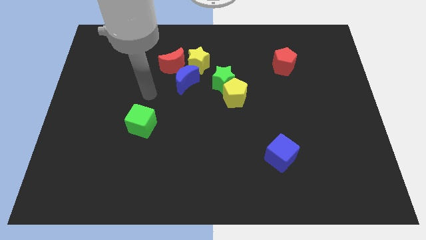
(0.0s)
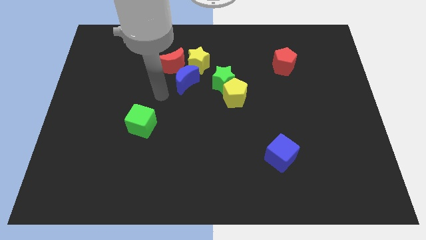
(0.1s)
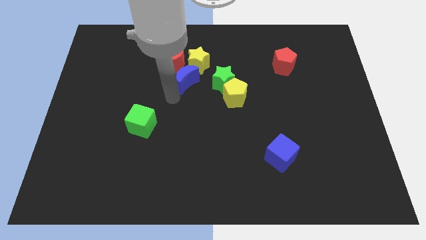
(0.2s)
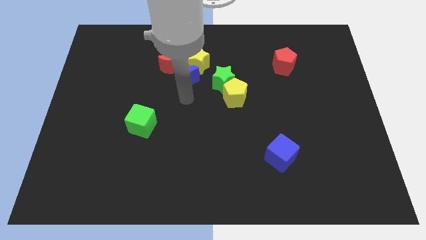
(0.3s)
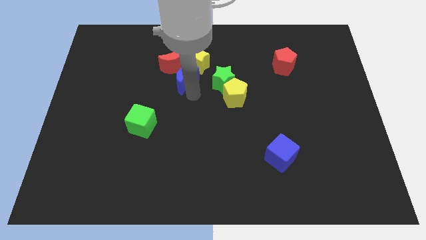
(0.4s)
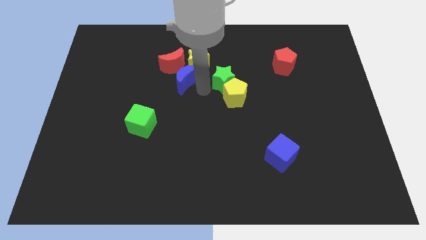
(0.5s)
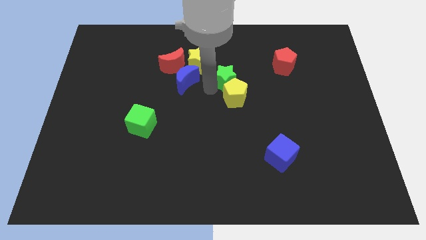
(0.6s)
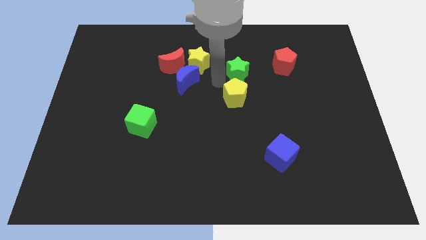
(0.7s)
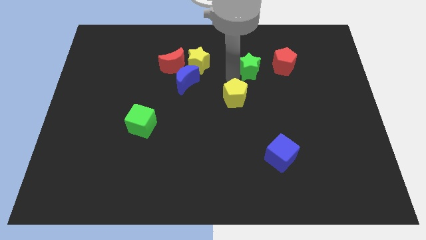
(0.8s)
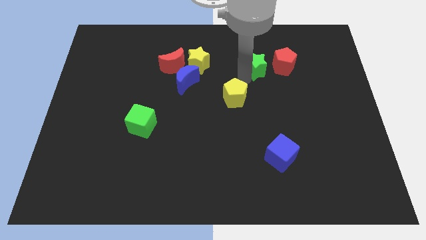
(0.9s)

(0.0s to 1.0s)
pull the yellow pentagon apart from the green star

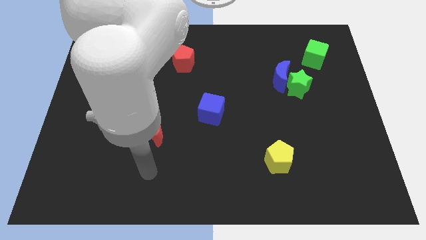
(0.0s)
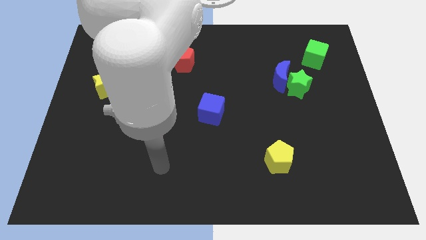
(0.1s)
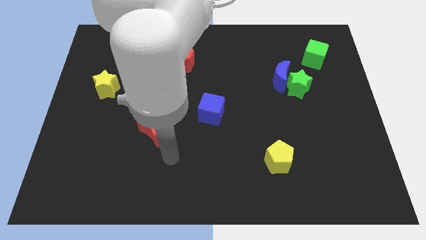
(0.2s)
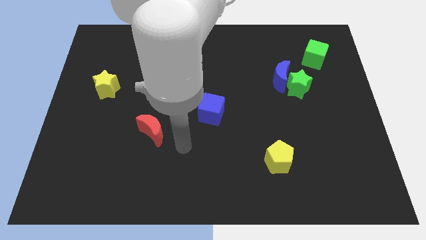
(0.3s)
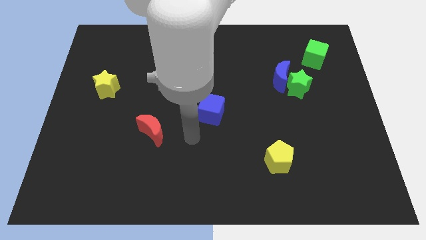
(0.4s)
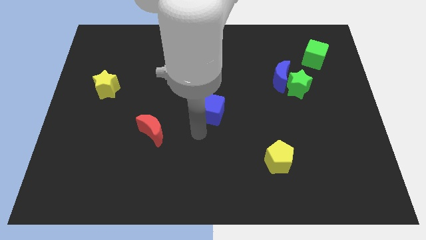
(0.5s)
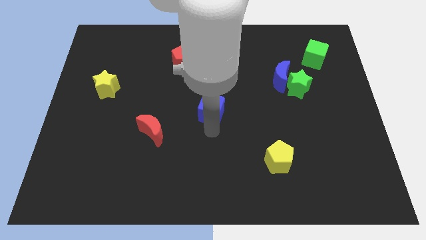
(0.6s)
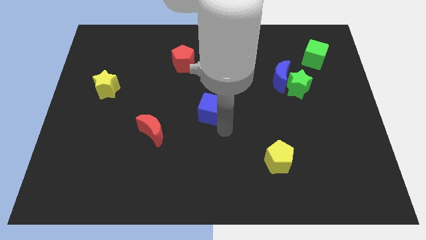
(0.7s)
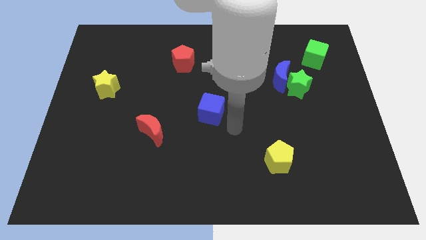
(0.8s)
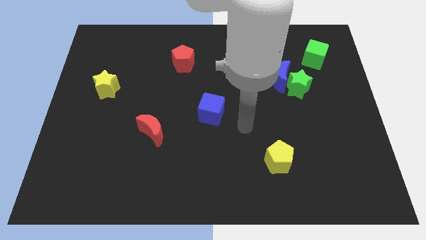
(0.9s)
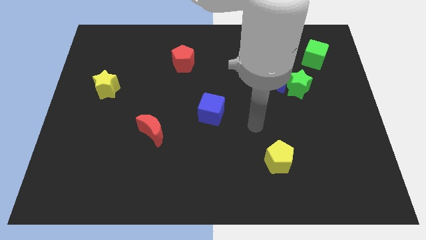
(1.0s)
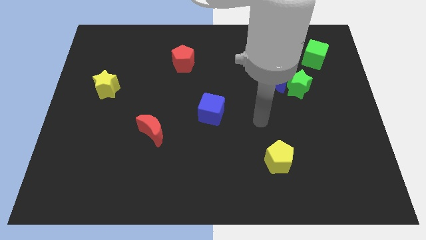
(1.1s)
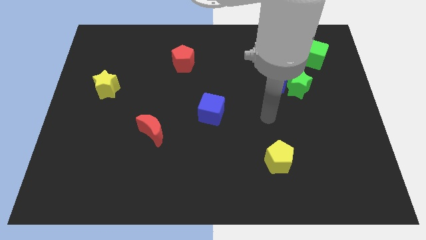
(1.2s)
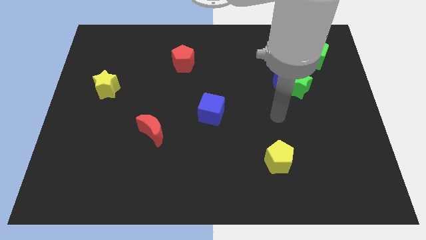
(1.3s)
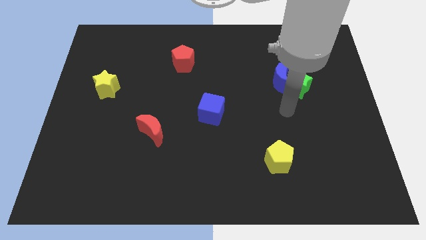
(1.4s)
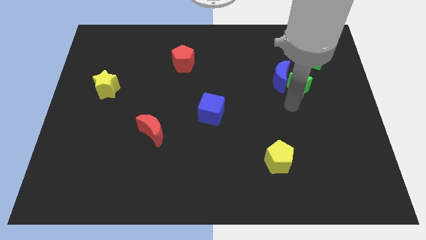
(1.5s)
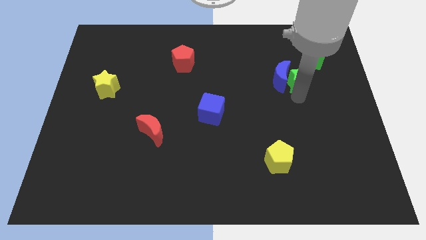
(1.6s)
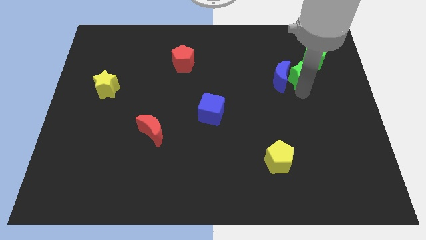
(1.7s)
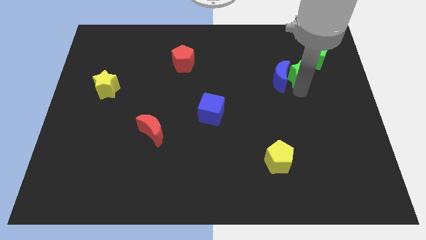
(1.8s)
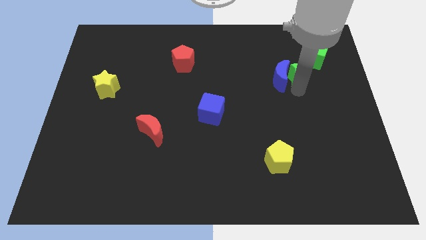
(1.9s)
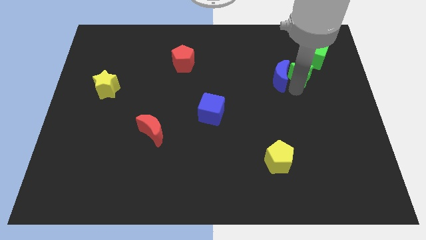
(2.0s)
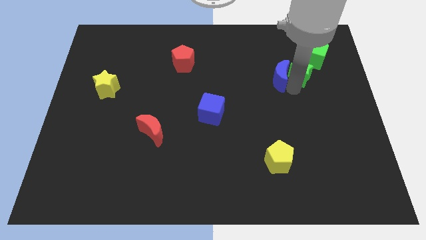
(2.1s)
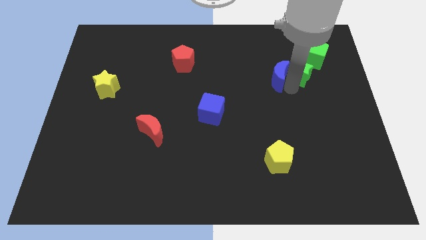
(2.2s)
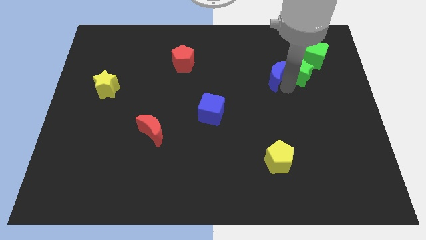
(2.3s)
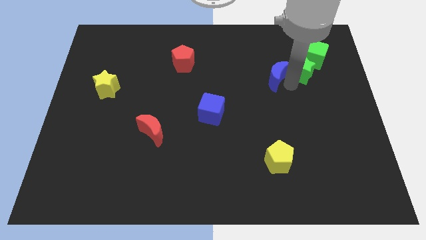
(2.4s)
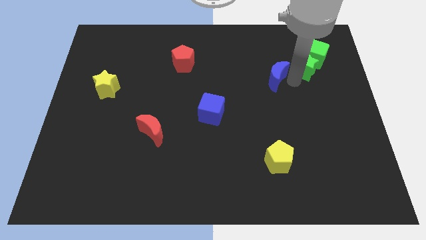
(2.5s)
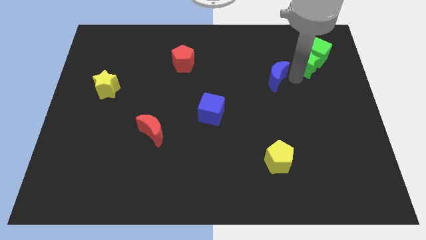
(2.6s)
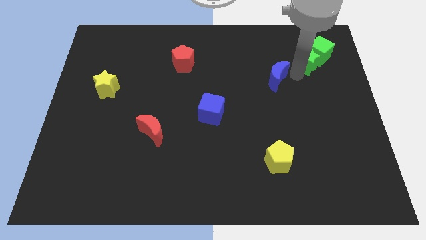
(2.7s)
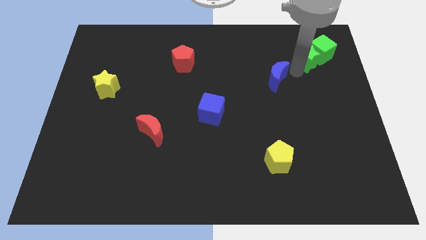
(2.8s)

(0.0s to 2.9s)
separate the blue moon from the green star

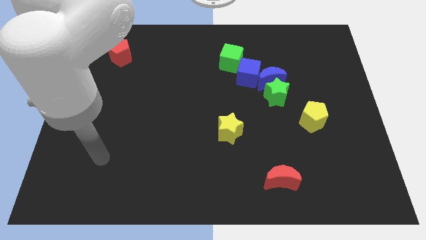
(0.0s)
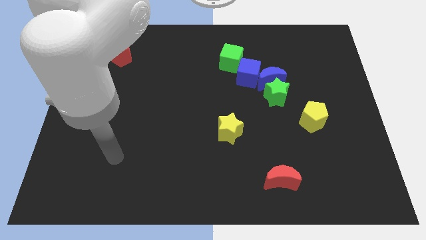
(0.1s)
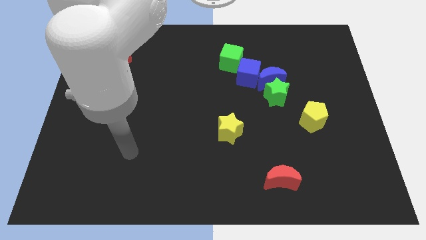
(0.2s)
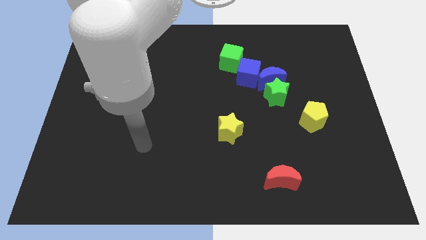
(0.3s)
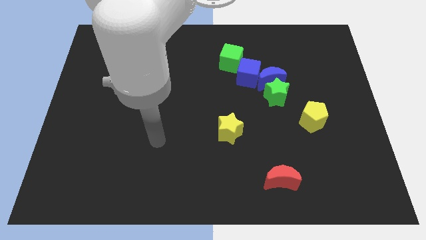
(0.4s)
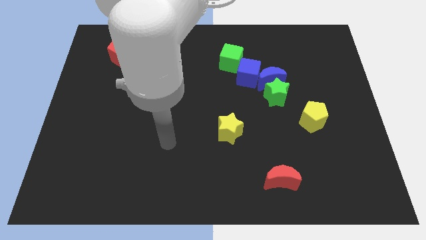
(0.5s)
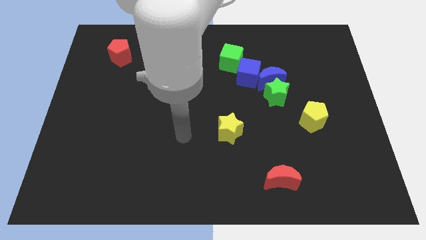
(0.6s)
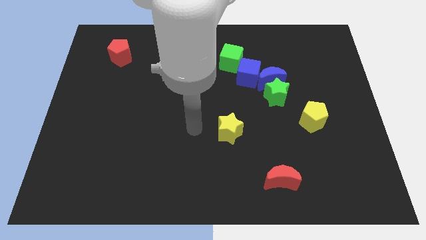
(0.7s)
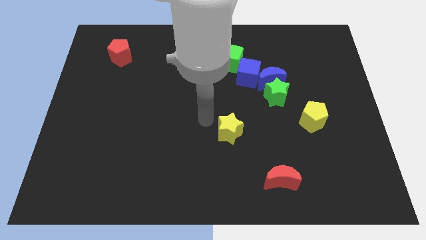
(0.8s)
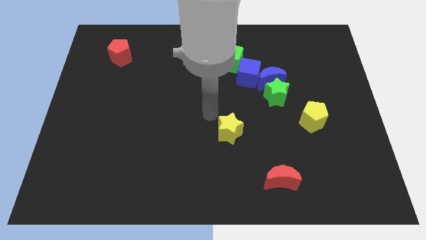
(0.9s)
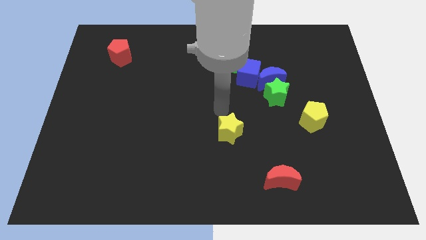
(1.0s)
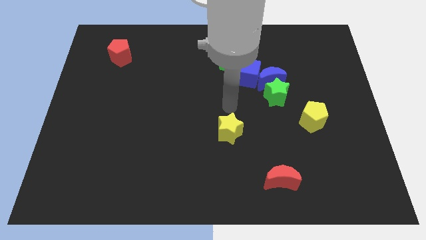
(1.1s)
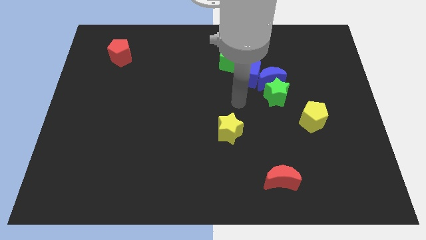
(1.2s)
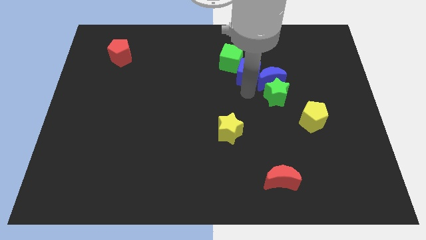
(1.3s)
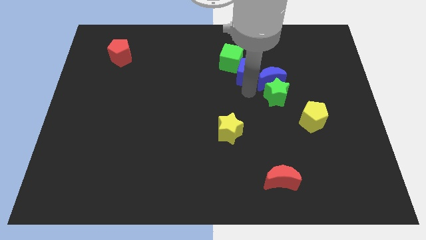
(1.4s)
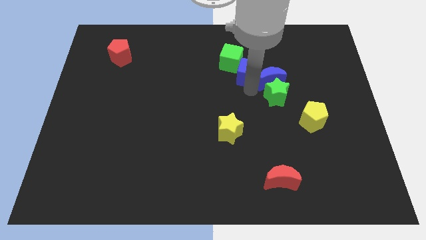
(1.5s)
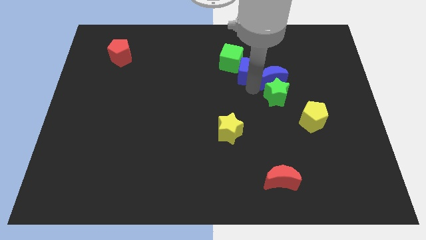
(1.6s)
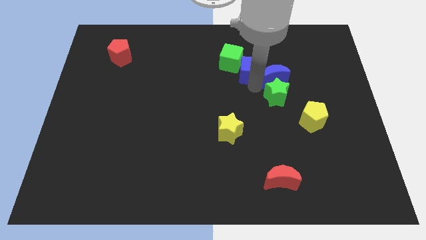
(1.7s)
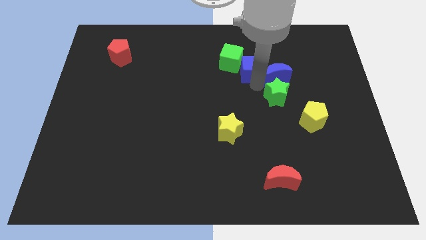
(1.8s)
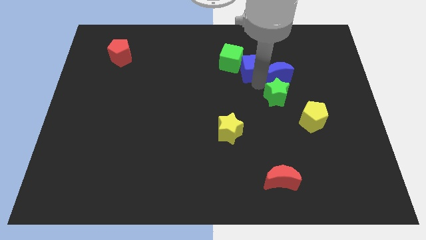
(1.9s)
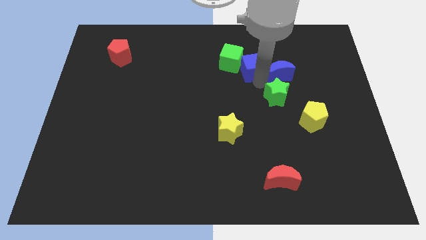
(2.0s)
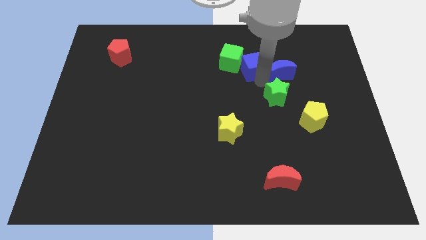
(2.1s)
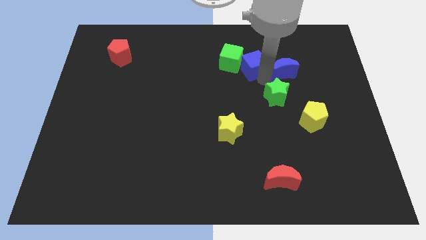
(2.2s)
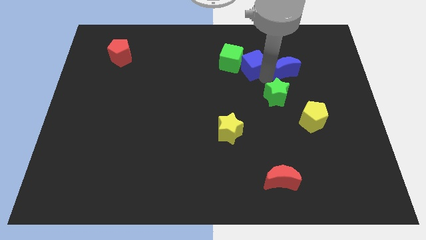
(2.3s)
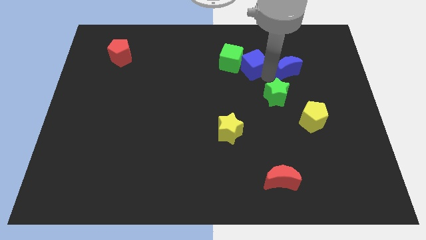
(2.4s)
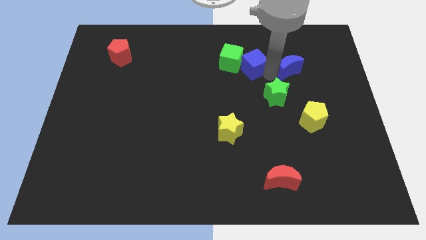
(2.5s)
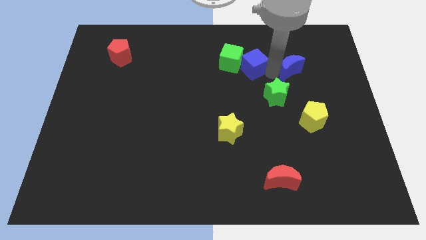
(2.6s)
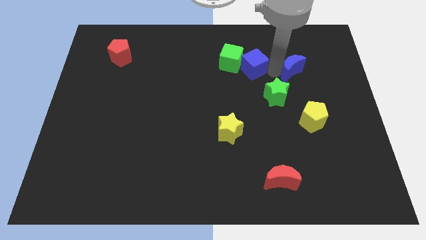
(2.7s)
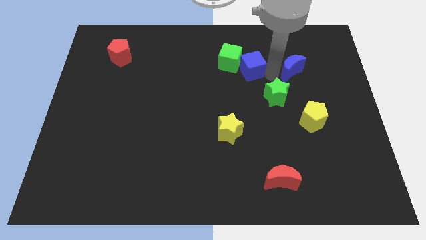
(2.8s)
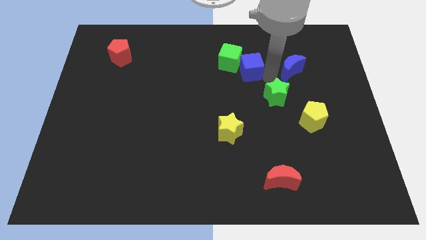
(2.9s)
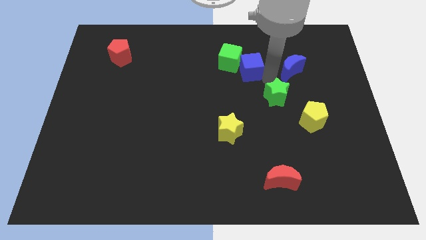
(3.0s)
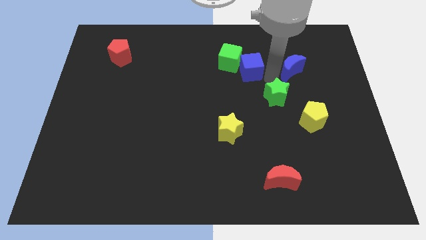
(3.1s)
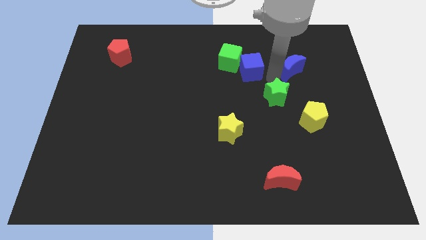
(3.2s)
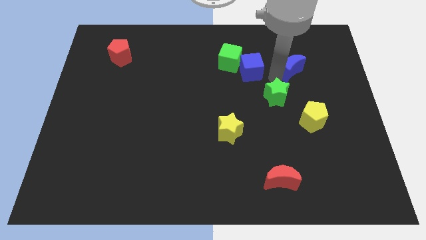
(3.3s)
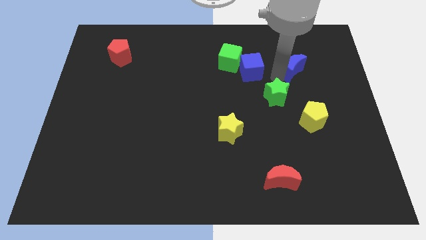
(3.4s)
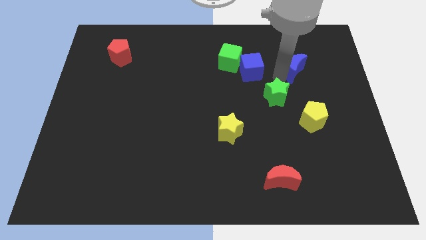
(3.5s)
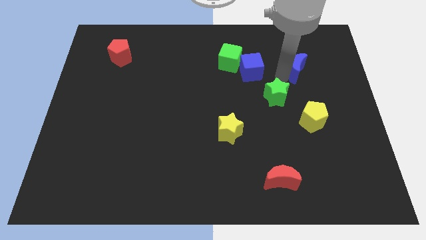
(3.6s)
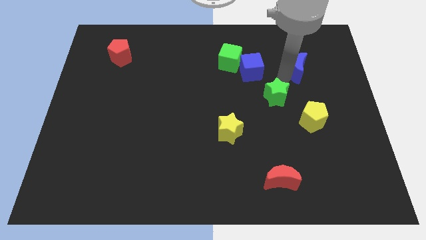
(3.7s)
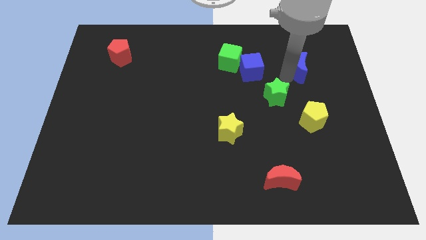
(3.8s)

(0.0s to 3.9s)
separate the blue moon from the green star and blue cube

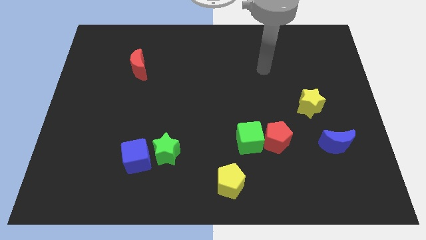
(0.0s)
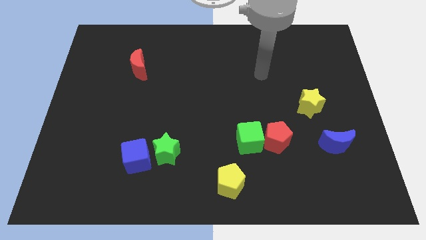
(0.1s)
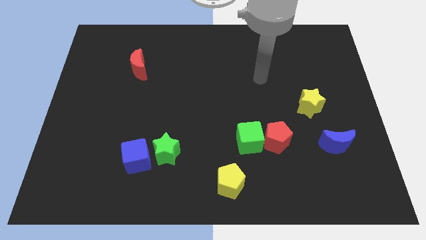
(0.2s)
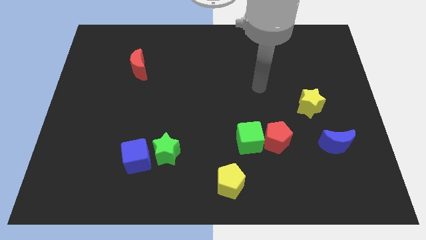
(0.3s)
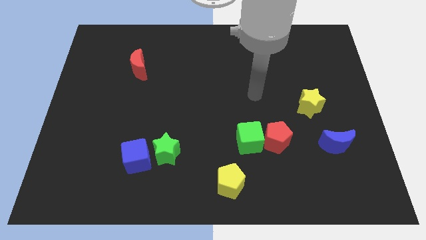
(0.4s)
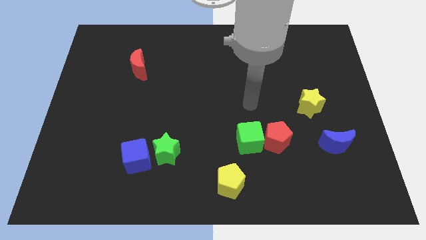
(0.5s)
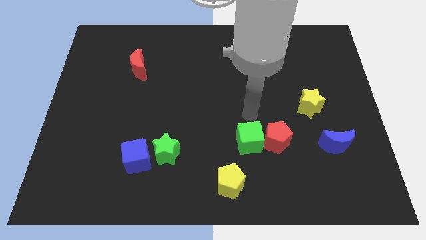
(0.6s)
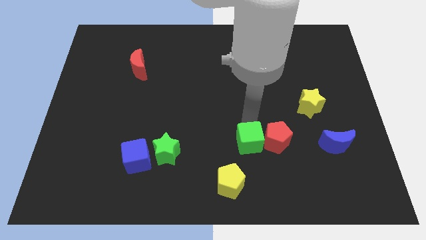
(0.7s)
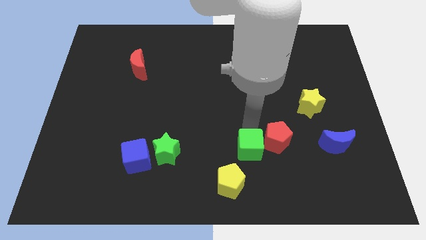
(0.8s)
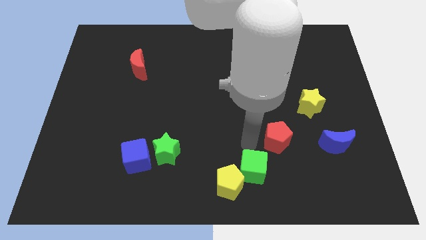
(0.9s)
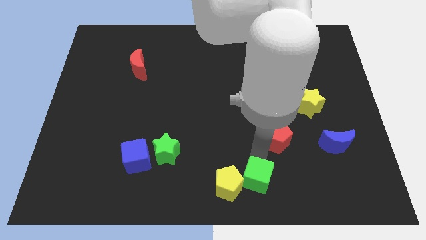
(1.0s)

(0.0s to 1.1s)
separate the red pentagon from the green cube

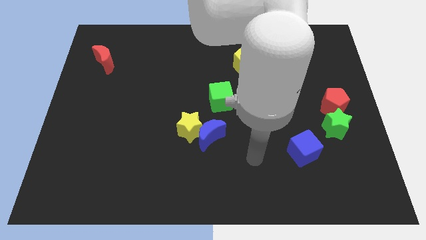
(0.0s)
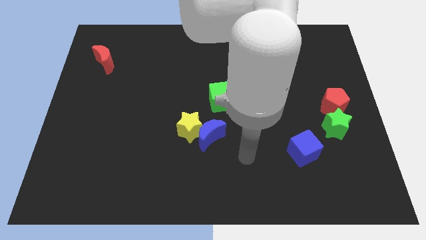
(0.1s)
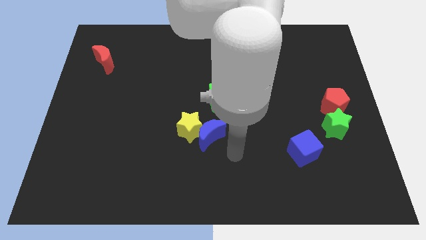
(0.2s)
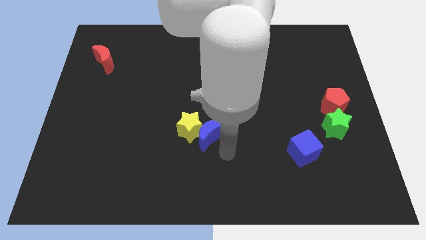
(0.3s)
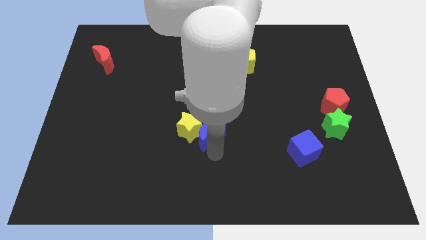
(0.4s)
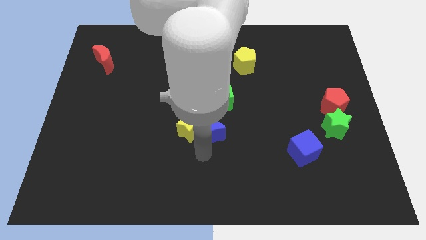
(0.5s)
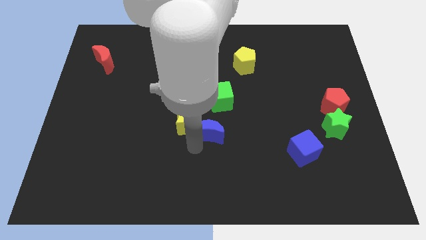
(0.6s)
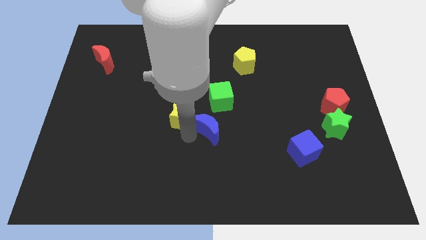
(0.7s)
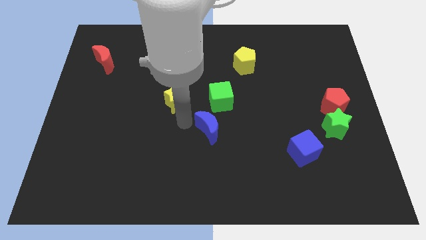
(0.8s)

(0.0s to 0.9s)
separate the blue moon from the yellow star
